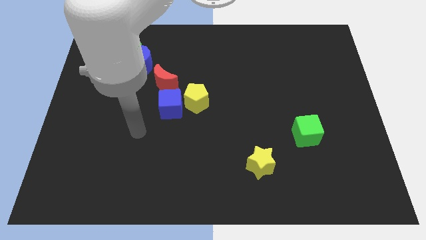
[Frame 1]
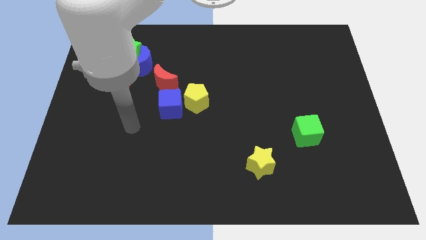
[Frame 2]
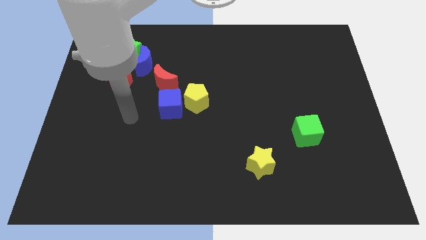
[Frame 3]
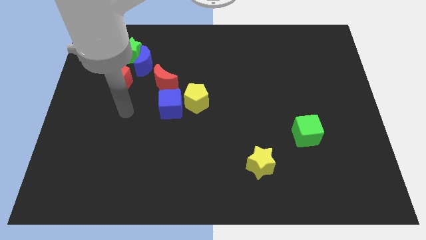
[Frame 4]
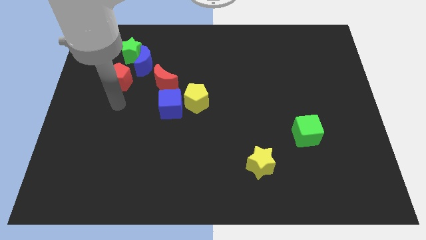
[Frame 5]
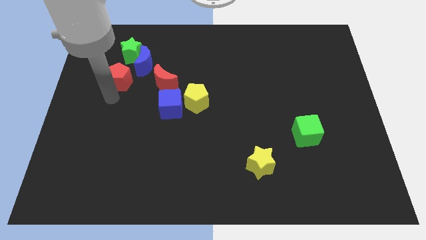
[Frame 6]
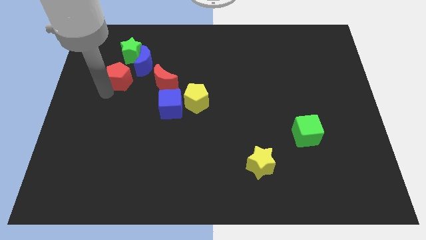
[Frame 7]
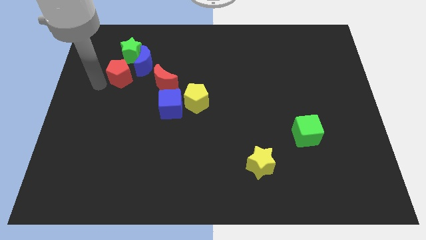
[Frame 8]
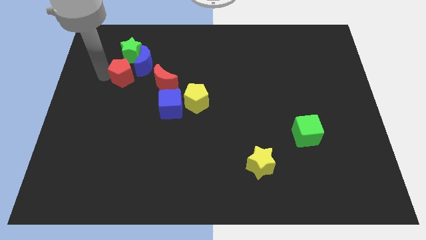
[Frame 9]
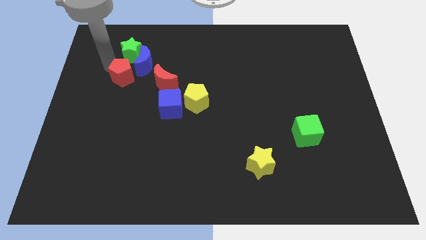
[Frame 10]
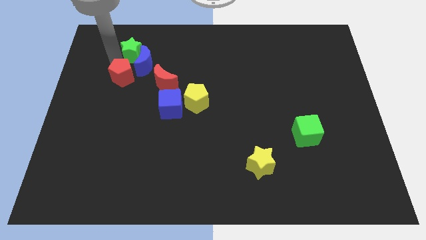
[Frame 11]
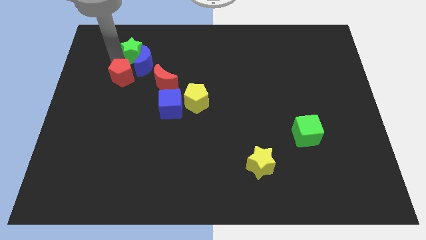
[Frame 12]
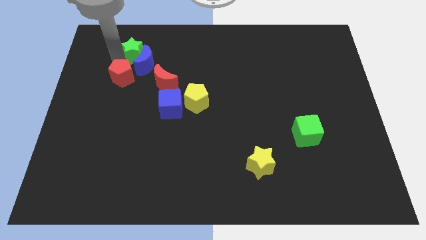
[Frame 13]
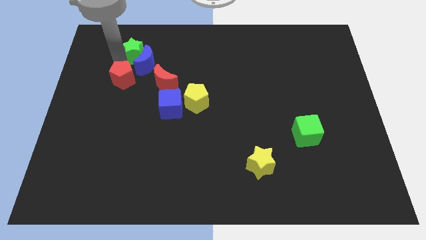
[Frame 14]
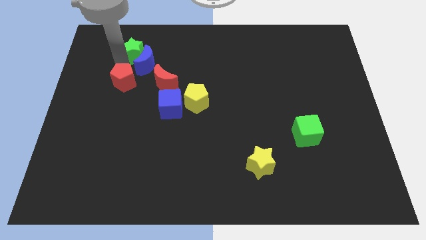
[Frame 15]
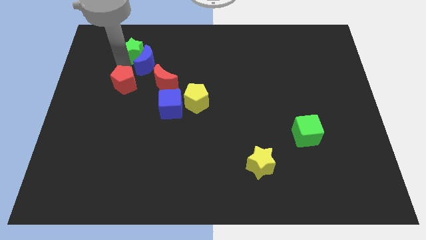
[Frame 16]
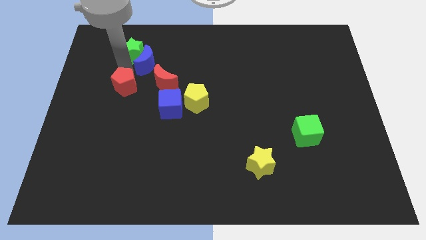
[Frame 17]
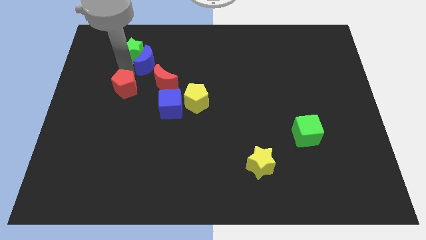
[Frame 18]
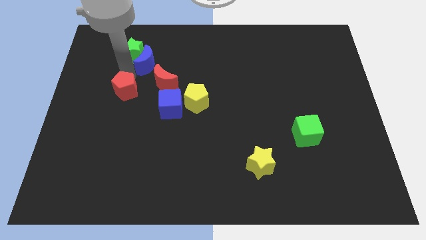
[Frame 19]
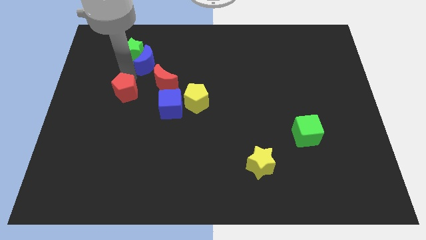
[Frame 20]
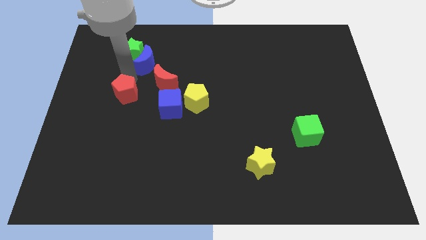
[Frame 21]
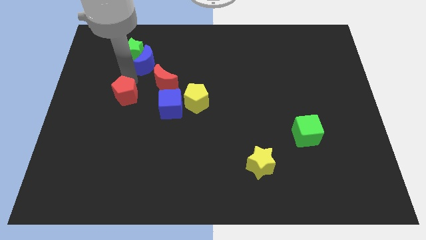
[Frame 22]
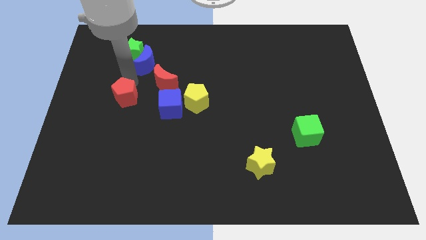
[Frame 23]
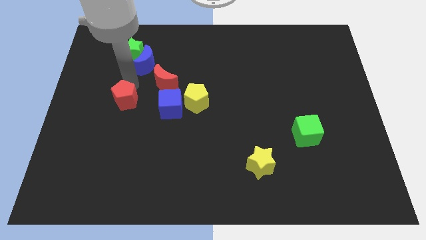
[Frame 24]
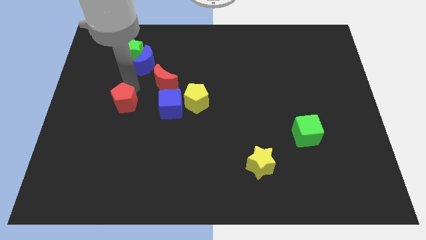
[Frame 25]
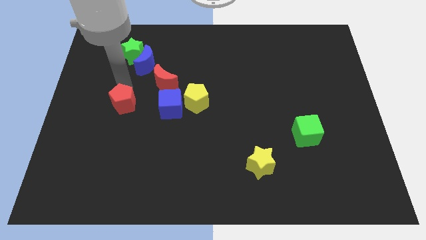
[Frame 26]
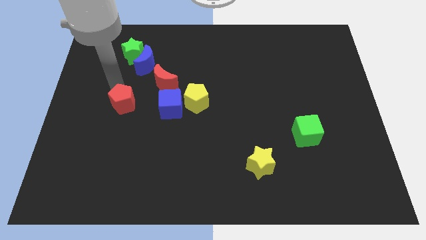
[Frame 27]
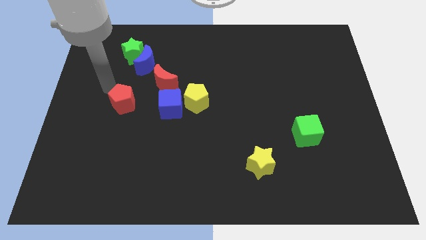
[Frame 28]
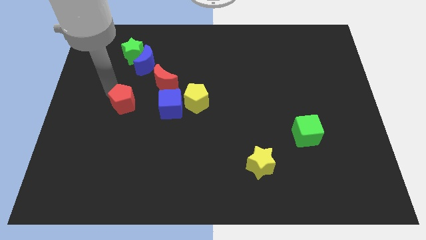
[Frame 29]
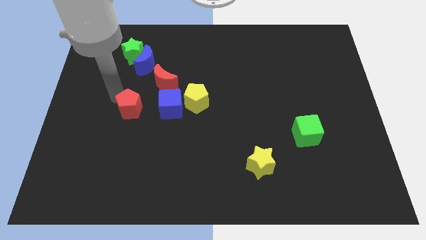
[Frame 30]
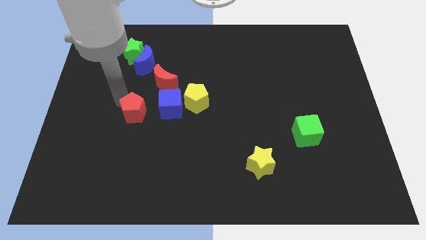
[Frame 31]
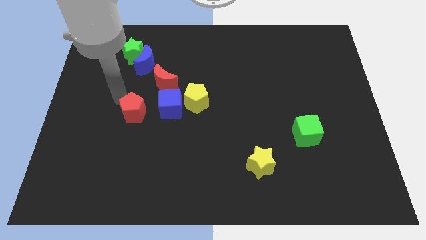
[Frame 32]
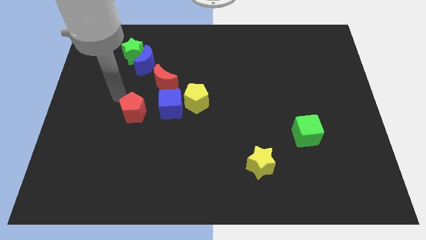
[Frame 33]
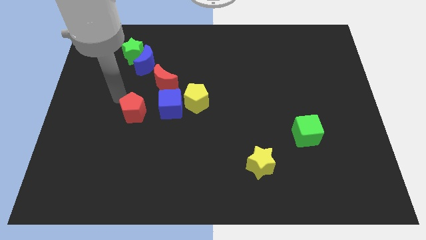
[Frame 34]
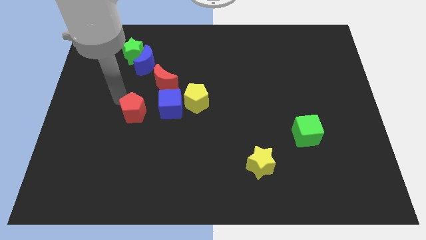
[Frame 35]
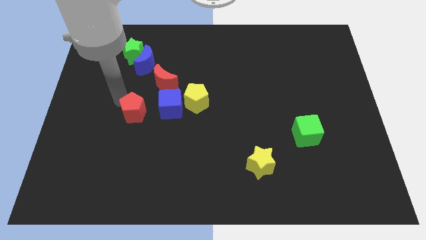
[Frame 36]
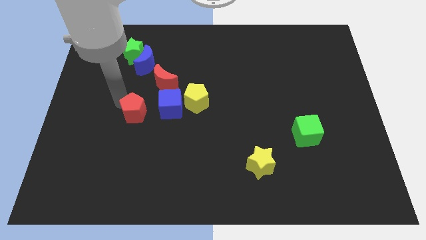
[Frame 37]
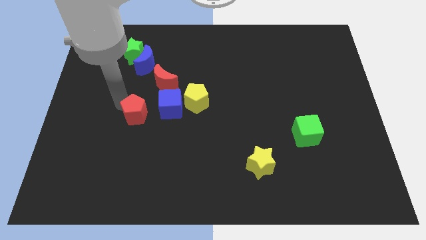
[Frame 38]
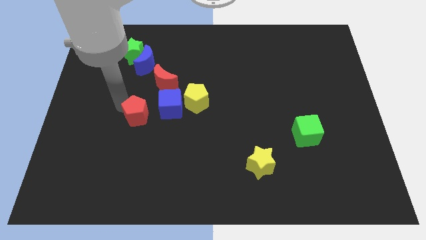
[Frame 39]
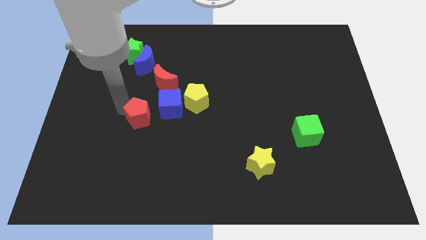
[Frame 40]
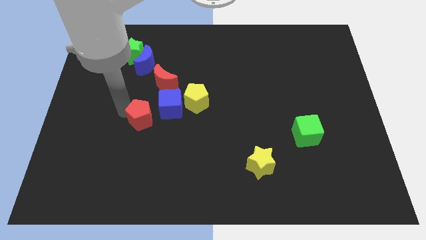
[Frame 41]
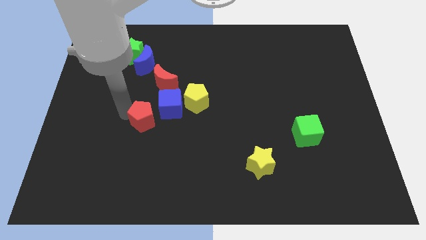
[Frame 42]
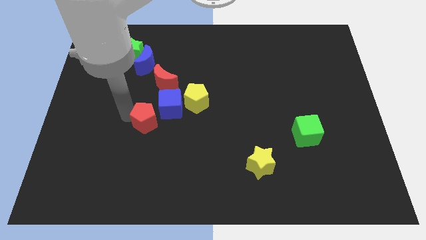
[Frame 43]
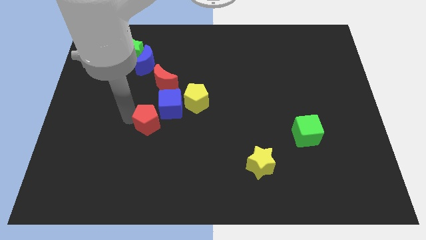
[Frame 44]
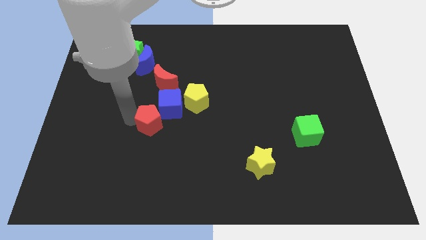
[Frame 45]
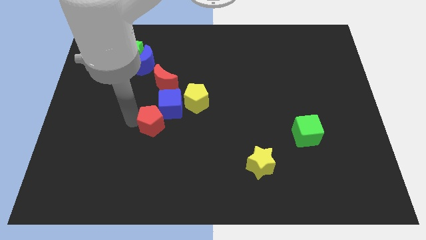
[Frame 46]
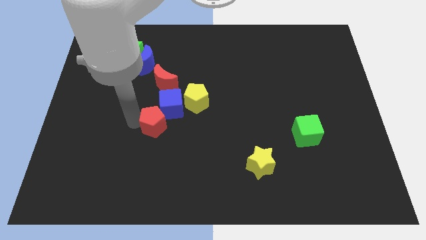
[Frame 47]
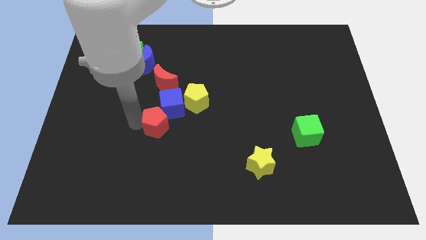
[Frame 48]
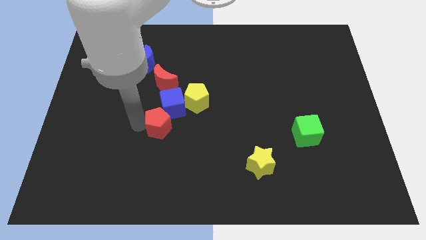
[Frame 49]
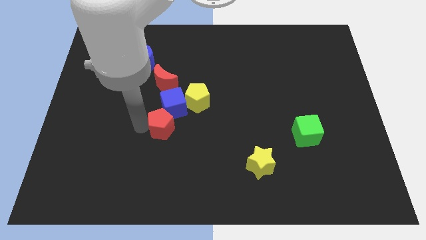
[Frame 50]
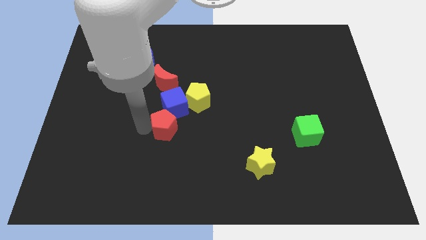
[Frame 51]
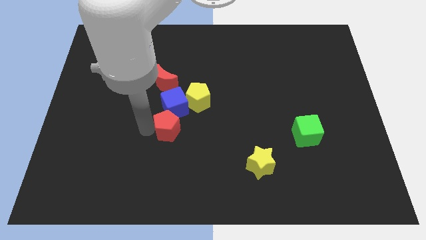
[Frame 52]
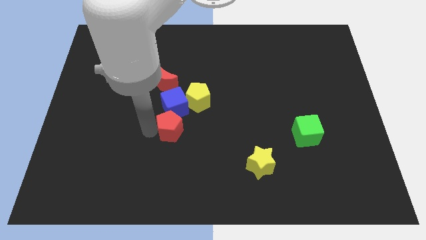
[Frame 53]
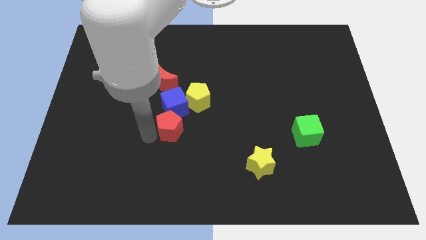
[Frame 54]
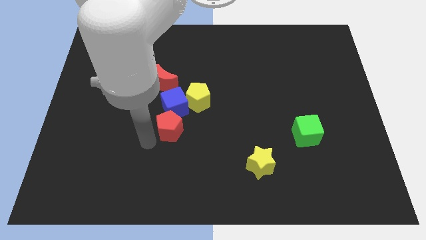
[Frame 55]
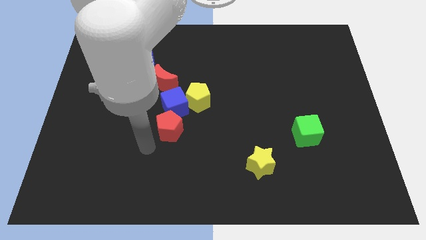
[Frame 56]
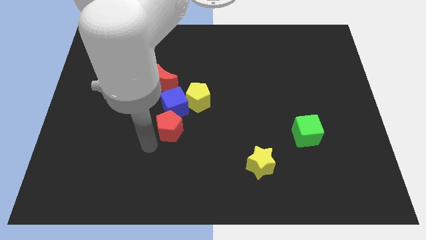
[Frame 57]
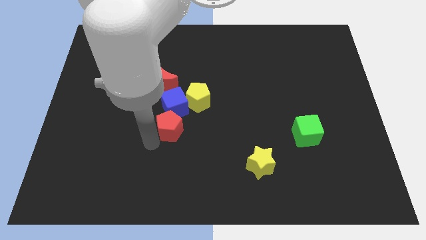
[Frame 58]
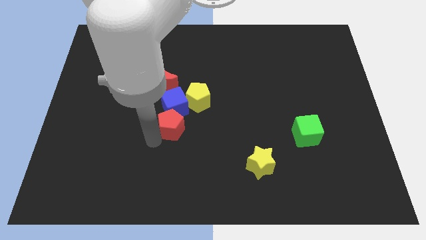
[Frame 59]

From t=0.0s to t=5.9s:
move the red pentagon to the middle

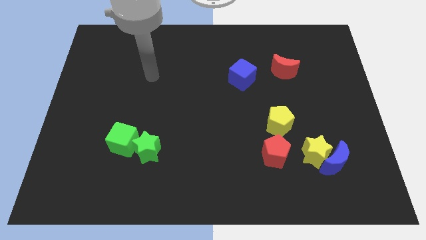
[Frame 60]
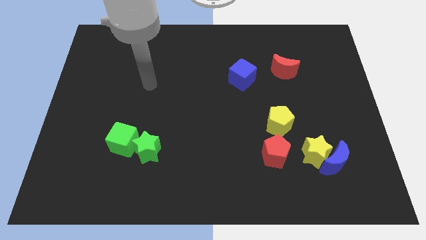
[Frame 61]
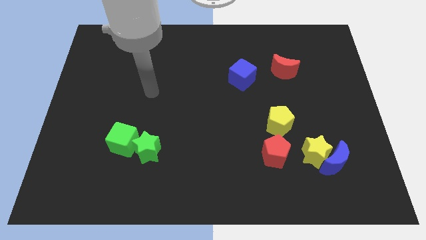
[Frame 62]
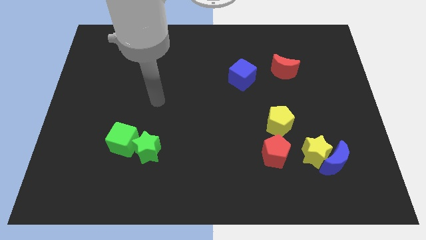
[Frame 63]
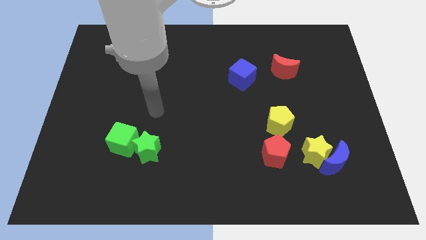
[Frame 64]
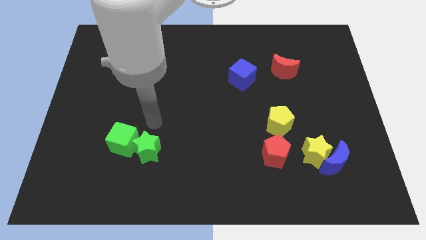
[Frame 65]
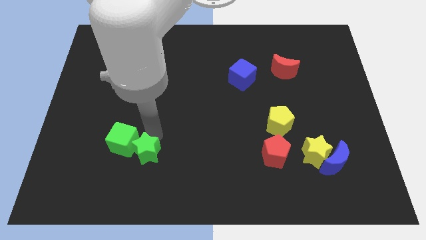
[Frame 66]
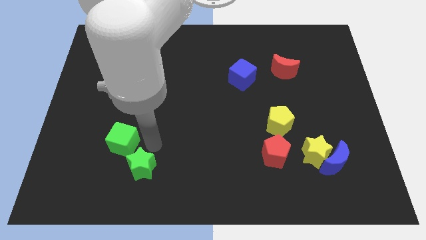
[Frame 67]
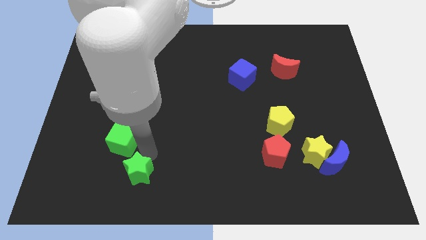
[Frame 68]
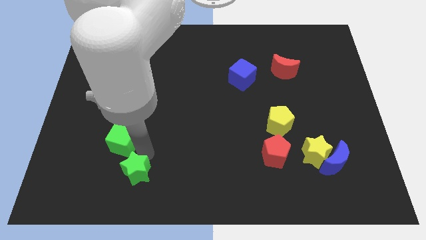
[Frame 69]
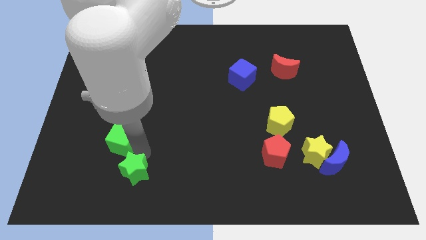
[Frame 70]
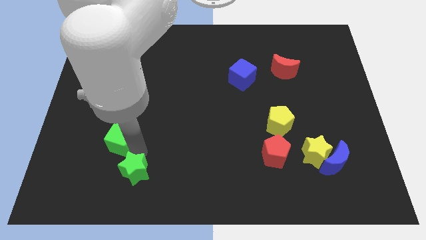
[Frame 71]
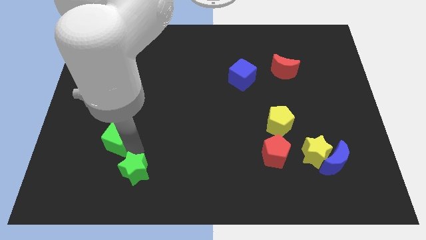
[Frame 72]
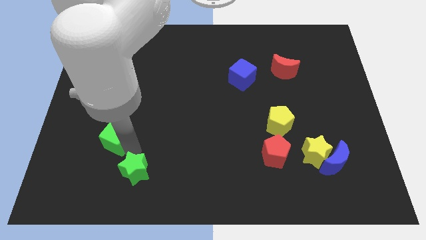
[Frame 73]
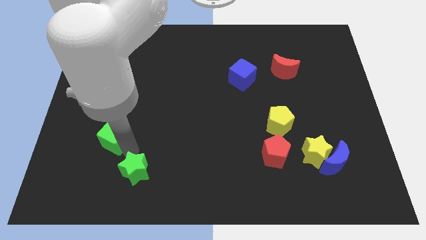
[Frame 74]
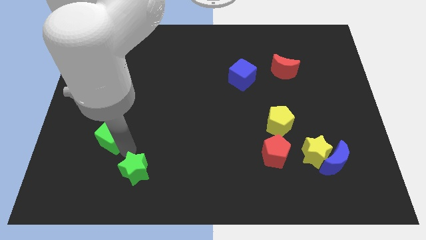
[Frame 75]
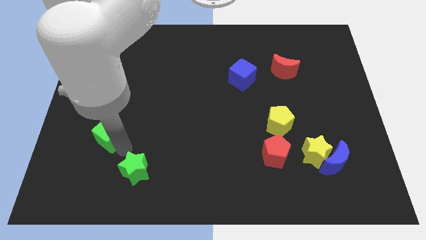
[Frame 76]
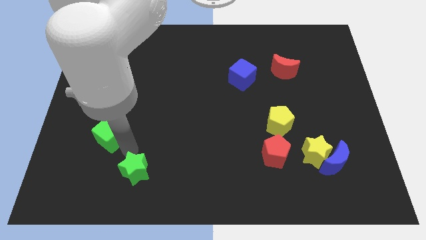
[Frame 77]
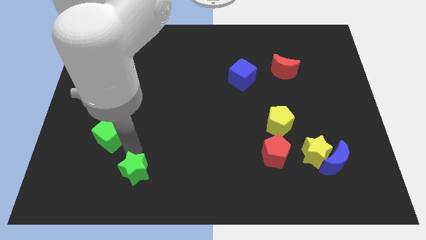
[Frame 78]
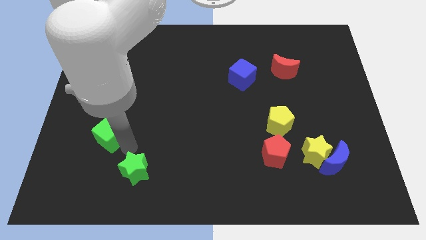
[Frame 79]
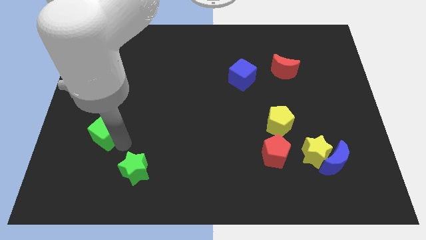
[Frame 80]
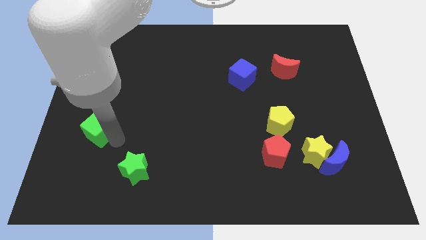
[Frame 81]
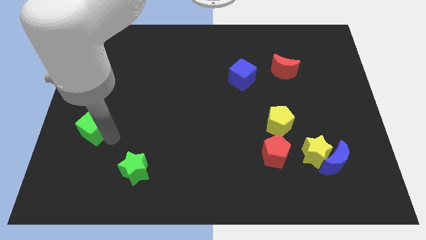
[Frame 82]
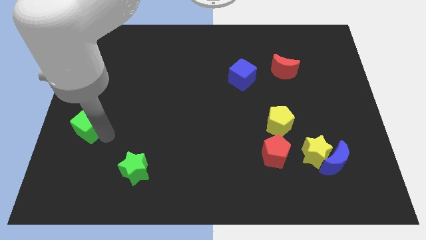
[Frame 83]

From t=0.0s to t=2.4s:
put the green cube to the center left
